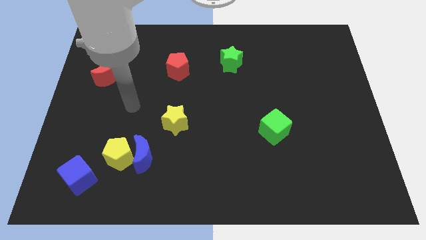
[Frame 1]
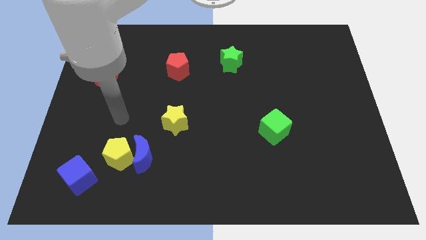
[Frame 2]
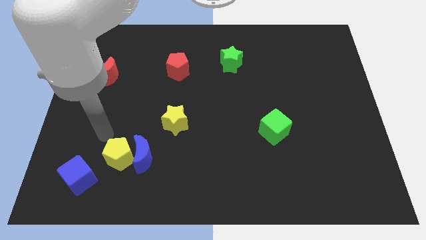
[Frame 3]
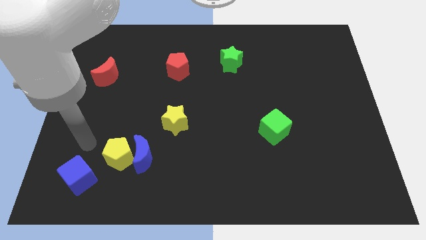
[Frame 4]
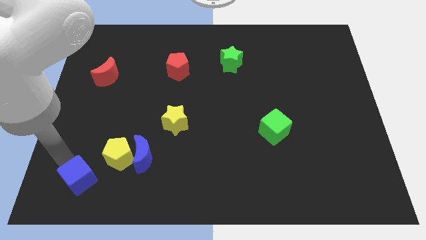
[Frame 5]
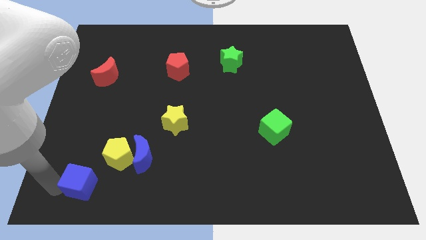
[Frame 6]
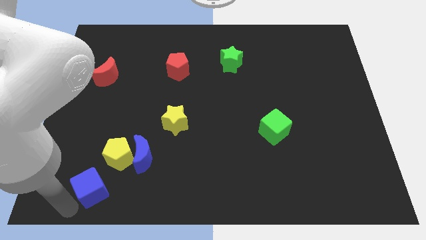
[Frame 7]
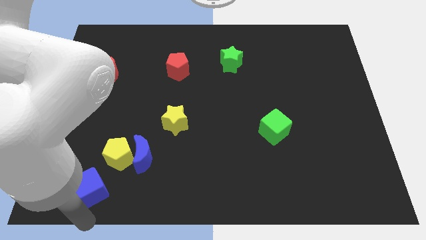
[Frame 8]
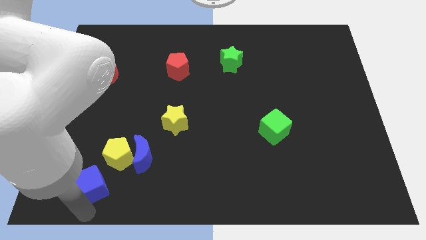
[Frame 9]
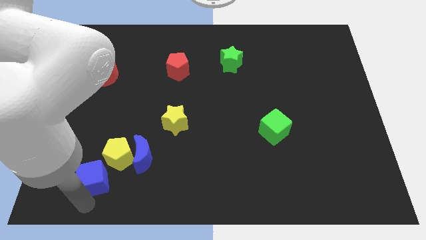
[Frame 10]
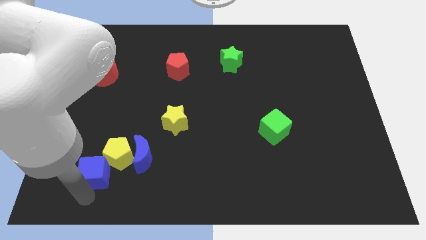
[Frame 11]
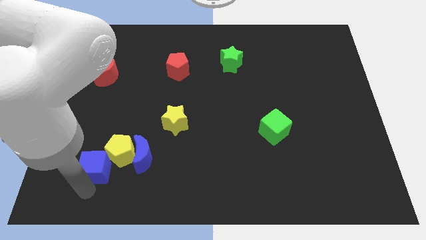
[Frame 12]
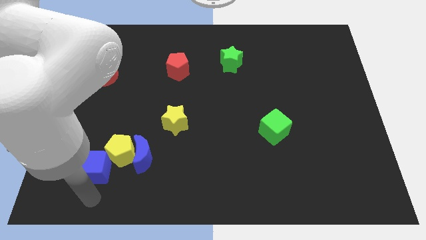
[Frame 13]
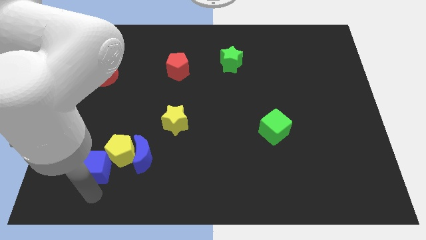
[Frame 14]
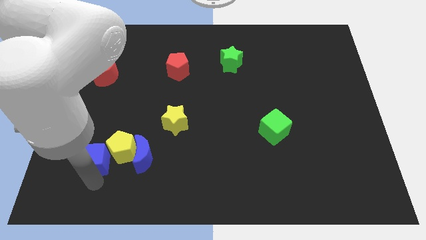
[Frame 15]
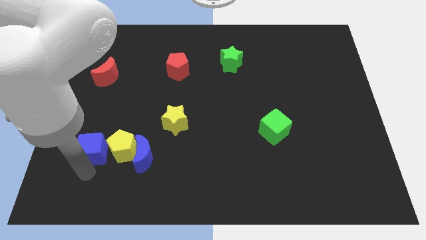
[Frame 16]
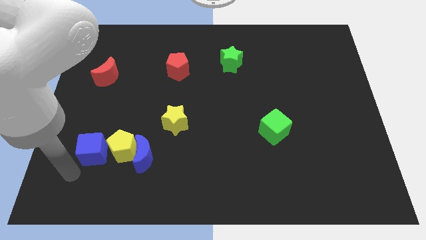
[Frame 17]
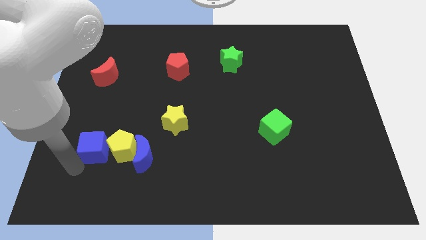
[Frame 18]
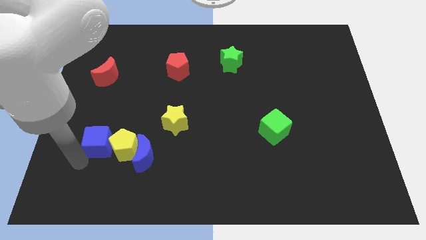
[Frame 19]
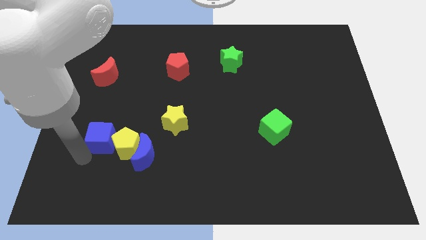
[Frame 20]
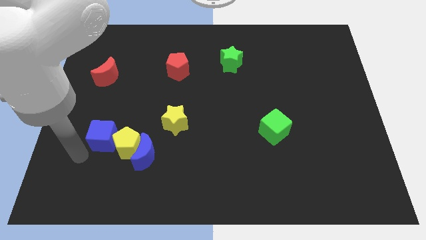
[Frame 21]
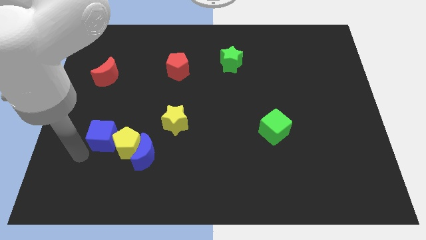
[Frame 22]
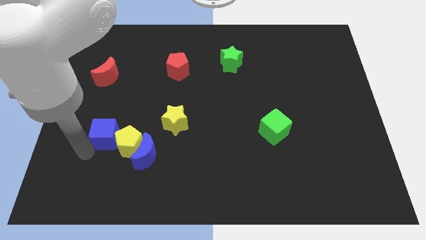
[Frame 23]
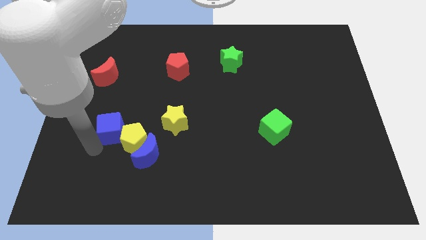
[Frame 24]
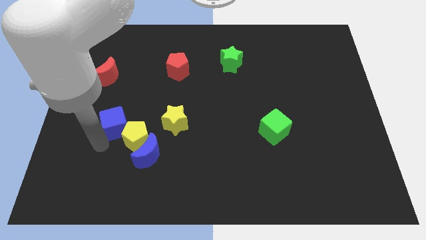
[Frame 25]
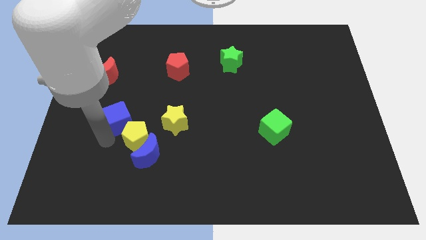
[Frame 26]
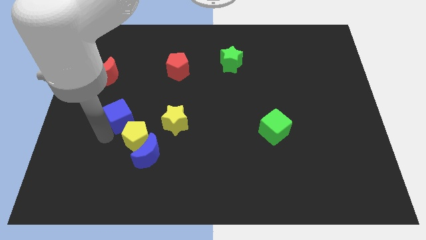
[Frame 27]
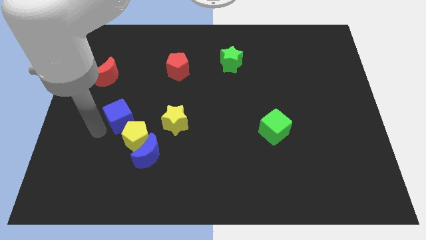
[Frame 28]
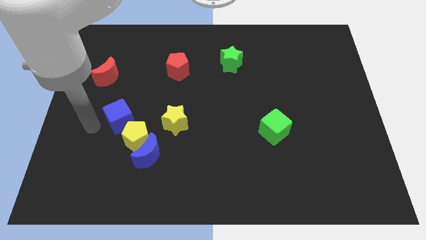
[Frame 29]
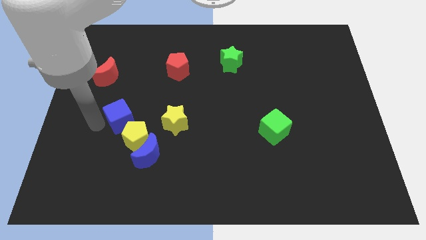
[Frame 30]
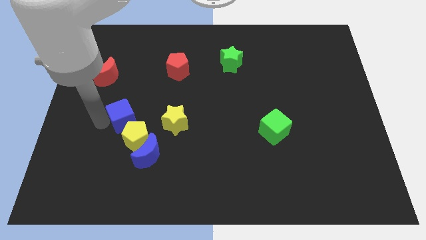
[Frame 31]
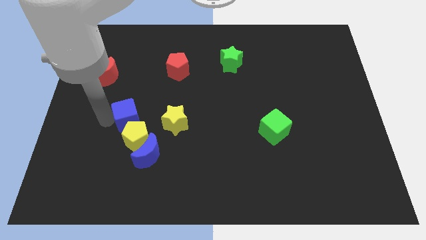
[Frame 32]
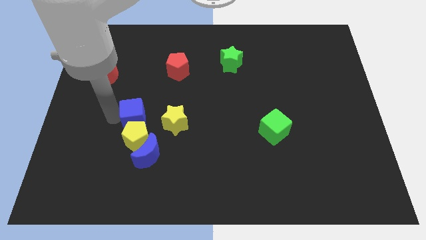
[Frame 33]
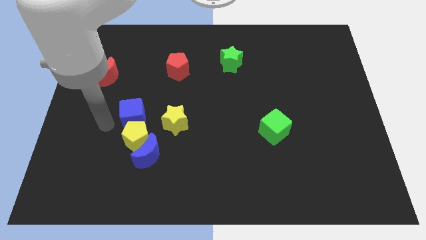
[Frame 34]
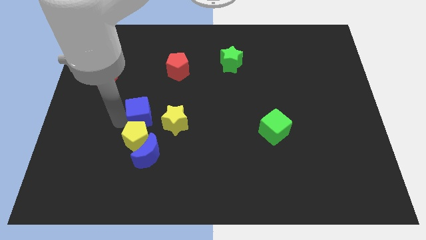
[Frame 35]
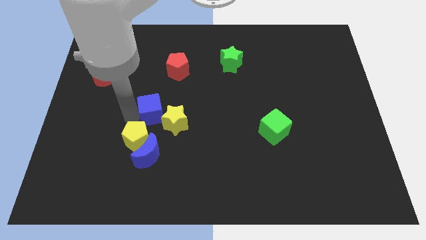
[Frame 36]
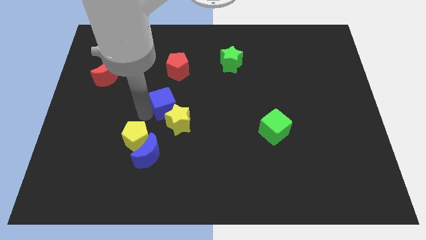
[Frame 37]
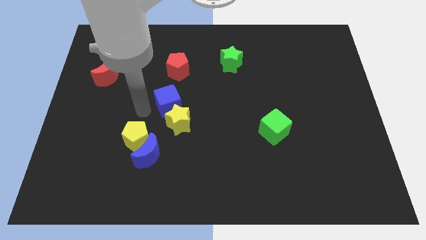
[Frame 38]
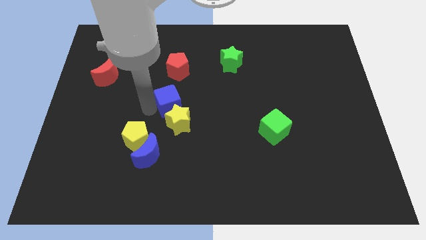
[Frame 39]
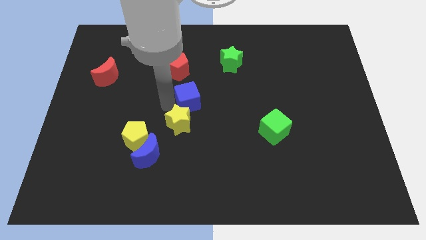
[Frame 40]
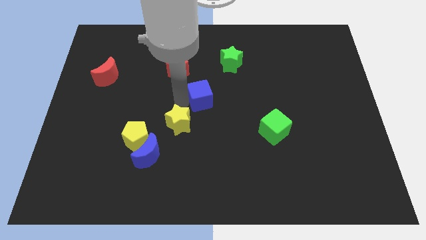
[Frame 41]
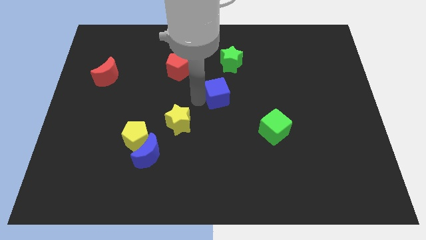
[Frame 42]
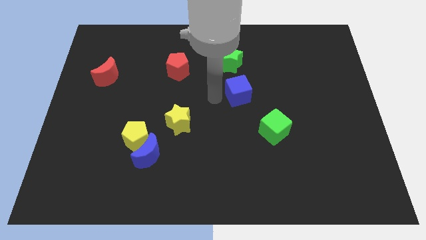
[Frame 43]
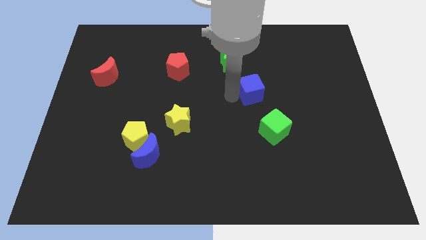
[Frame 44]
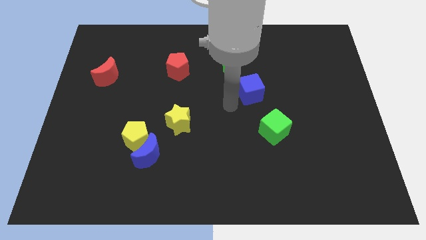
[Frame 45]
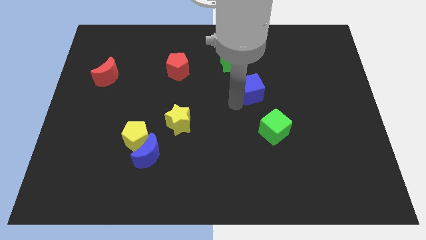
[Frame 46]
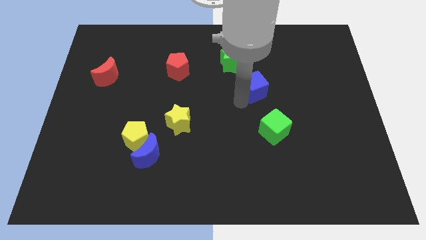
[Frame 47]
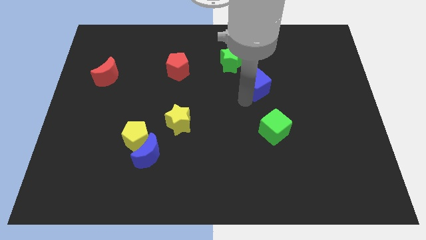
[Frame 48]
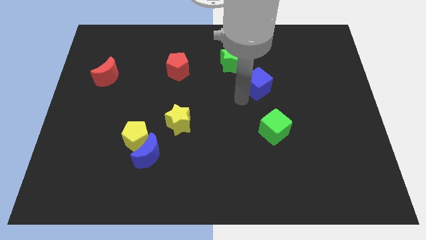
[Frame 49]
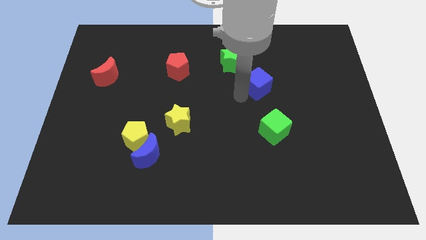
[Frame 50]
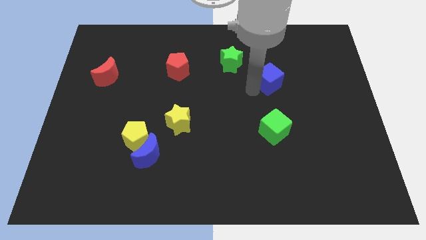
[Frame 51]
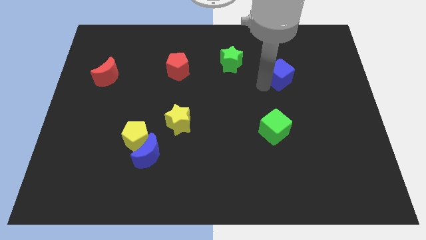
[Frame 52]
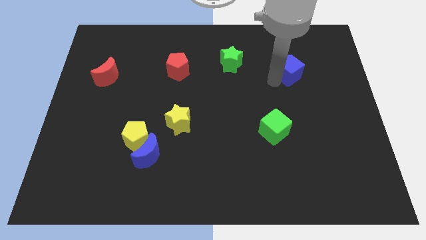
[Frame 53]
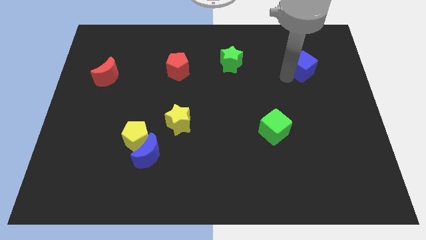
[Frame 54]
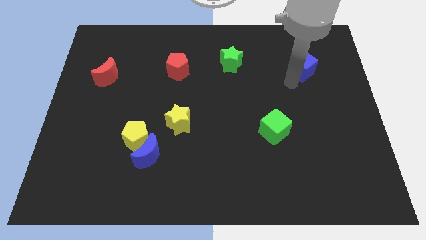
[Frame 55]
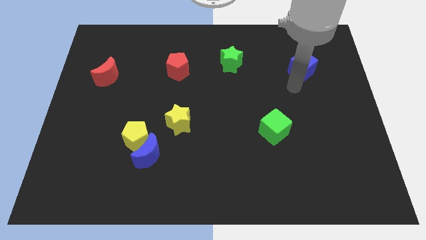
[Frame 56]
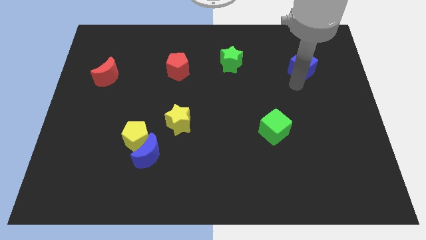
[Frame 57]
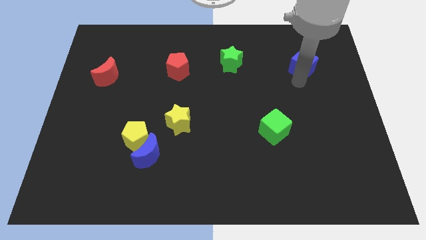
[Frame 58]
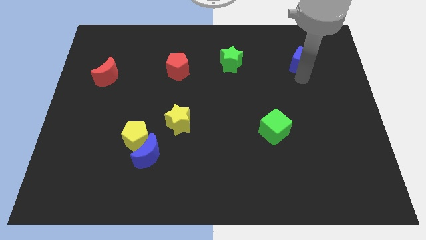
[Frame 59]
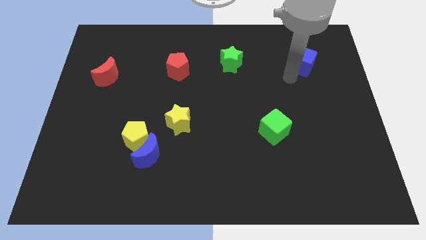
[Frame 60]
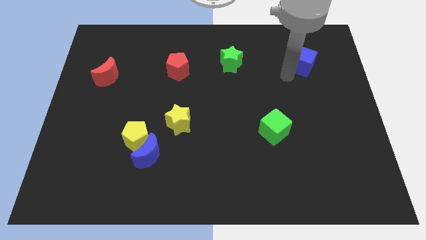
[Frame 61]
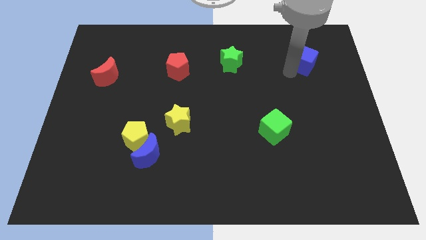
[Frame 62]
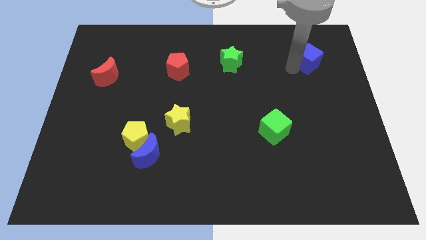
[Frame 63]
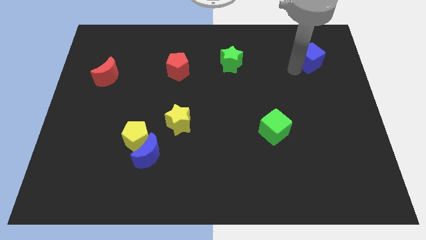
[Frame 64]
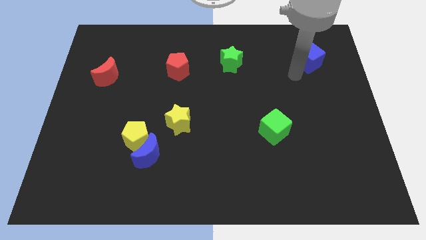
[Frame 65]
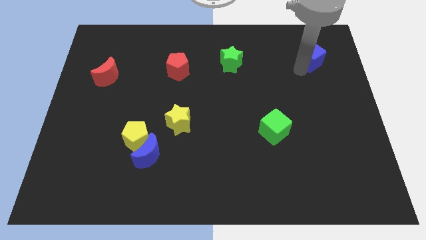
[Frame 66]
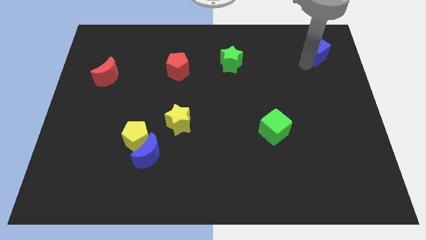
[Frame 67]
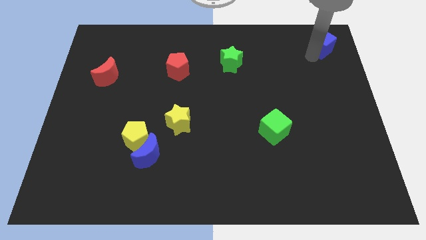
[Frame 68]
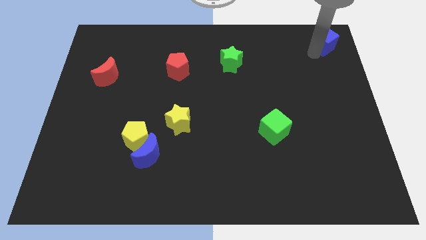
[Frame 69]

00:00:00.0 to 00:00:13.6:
put the blue cube to the top right of the board
